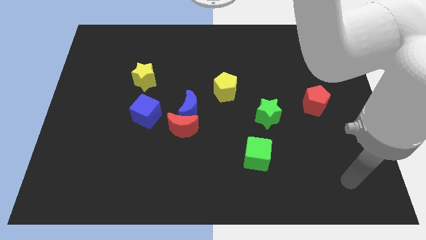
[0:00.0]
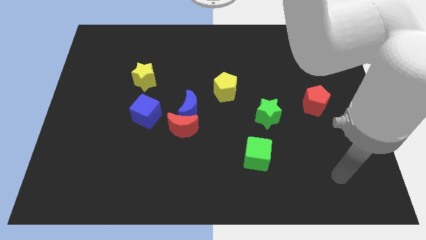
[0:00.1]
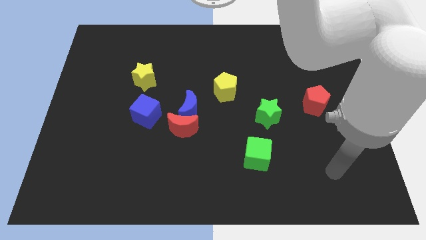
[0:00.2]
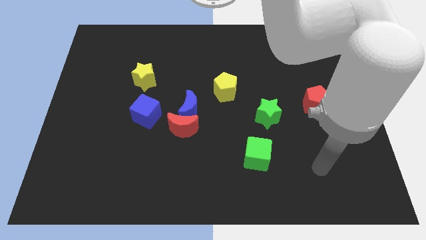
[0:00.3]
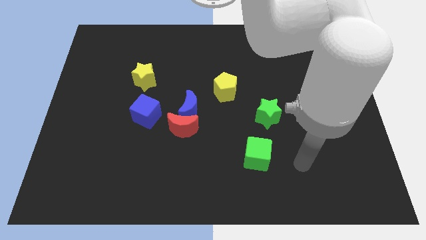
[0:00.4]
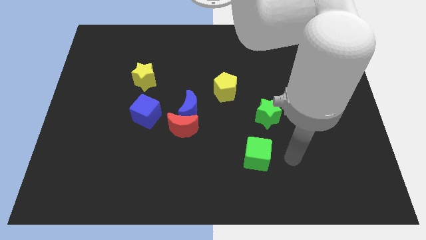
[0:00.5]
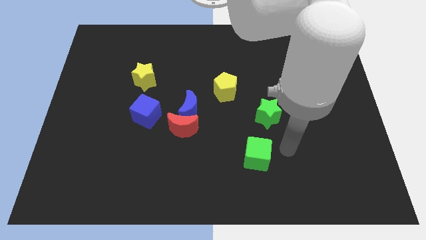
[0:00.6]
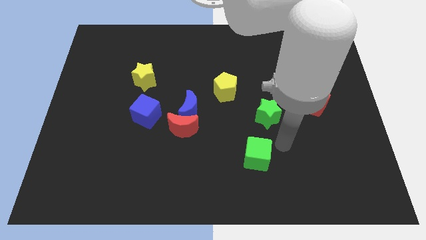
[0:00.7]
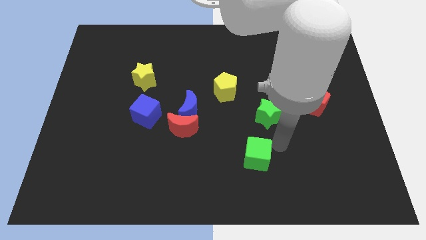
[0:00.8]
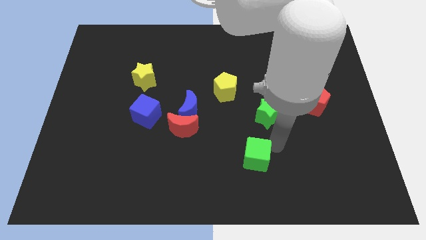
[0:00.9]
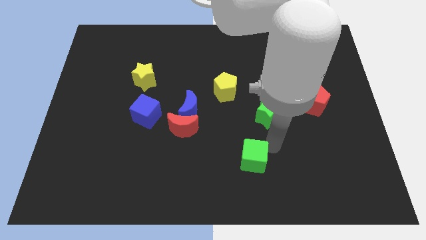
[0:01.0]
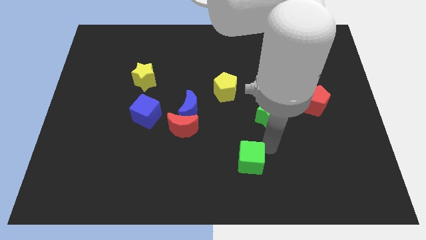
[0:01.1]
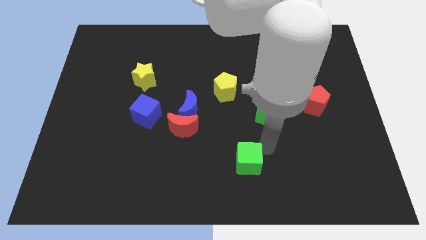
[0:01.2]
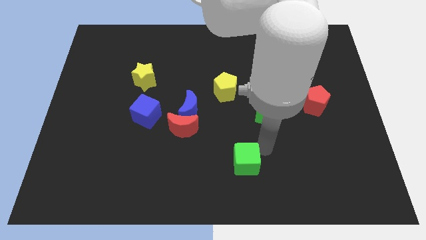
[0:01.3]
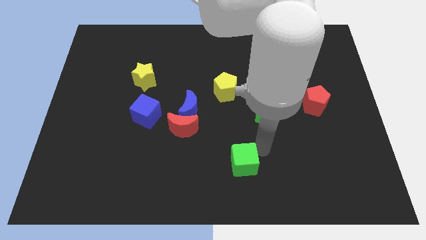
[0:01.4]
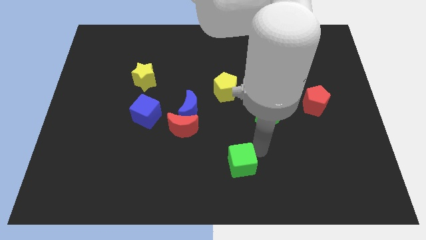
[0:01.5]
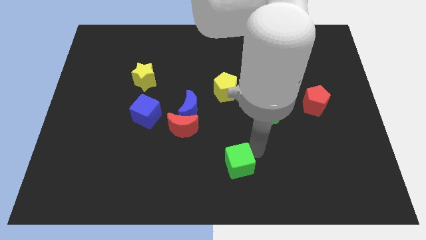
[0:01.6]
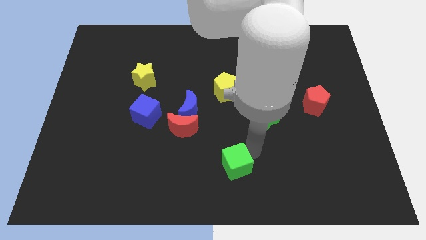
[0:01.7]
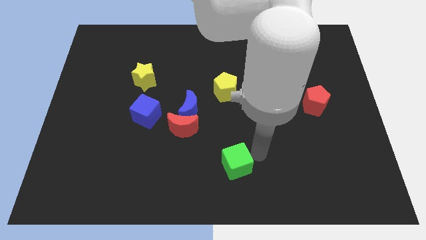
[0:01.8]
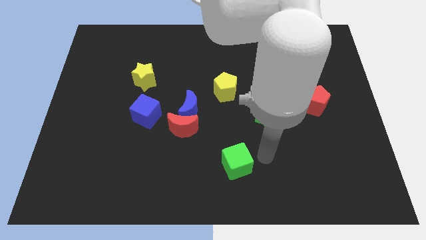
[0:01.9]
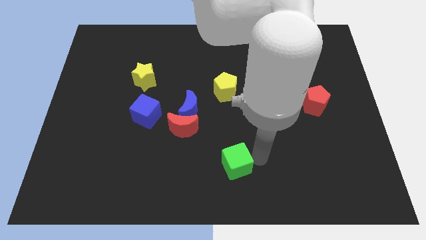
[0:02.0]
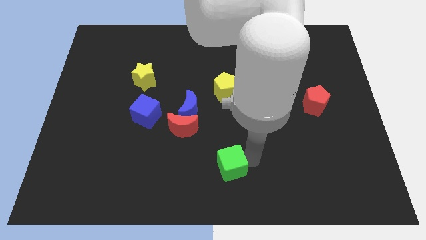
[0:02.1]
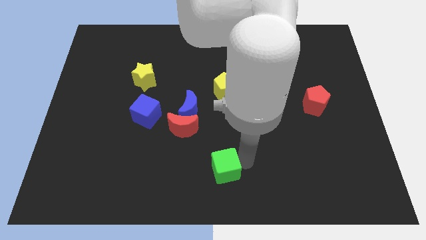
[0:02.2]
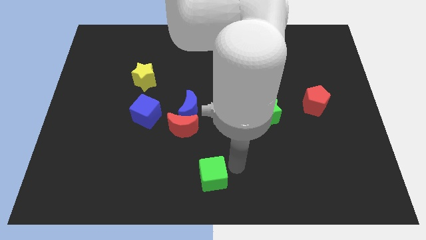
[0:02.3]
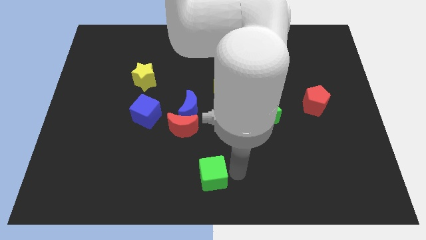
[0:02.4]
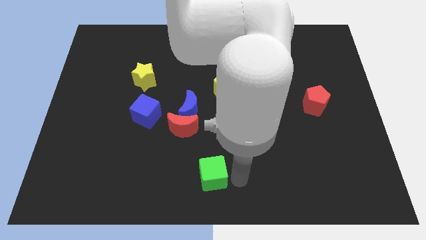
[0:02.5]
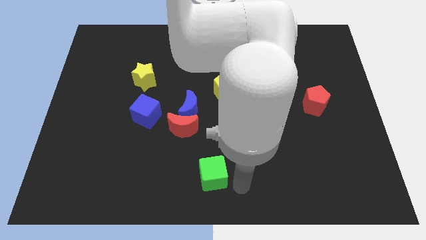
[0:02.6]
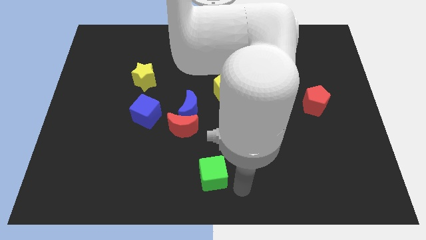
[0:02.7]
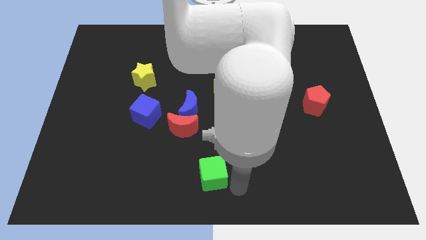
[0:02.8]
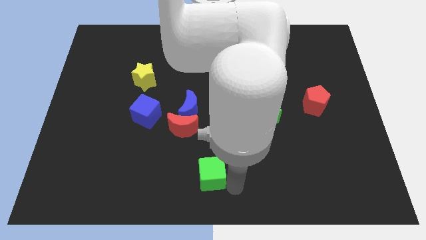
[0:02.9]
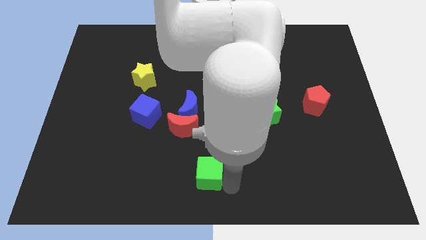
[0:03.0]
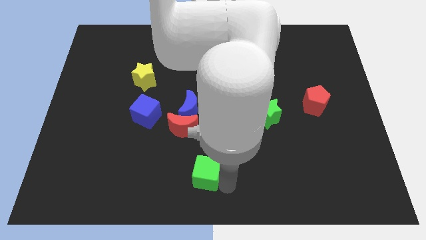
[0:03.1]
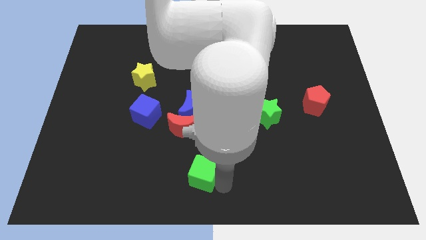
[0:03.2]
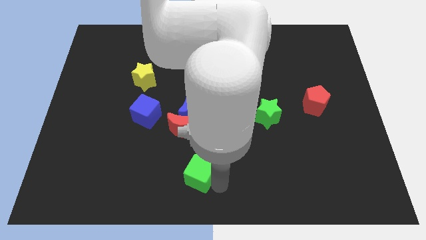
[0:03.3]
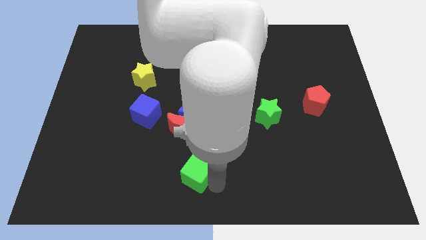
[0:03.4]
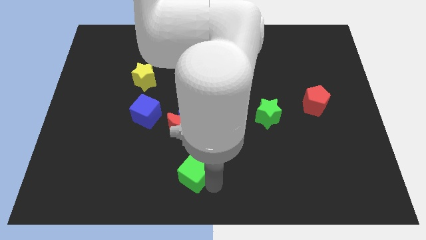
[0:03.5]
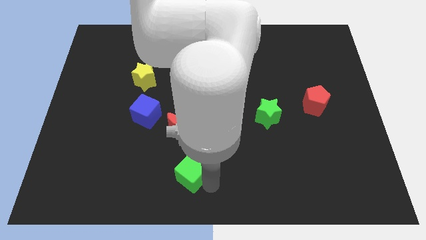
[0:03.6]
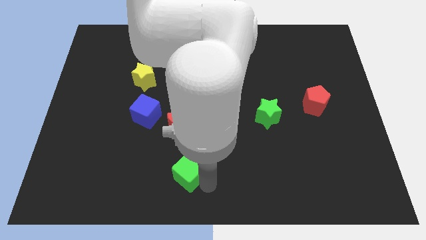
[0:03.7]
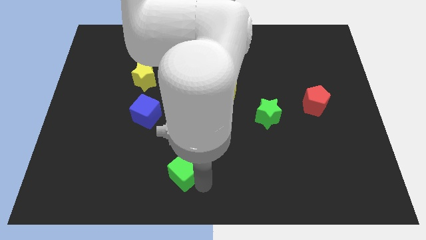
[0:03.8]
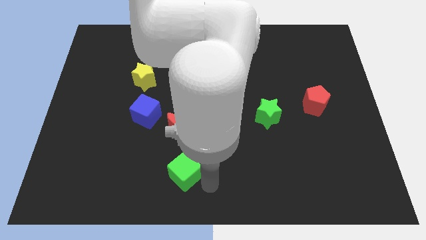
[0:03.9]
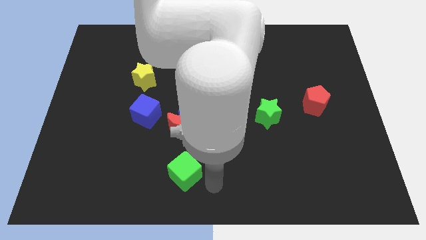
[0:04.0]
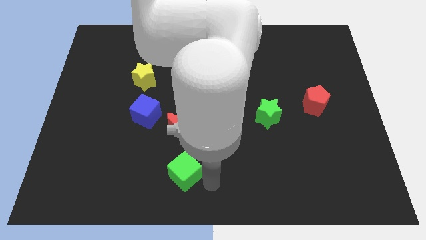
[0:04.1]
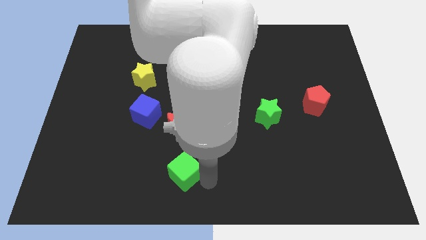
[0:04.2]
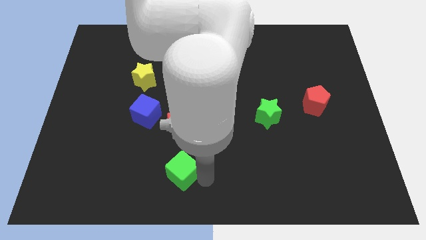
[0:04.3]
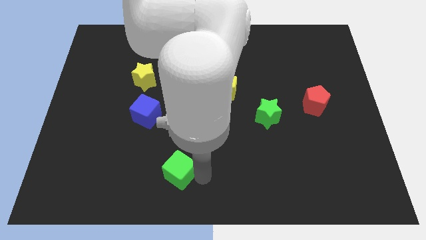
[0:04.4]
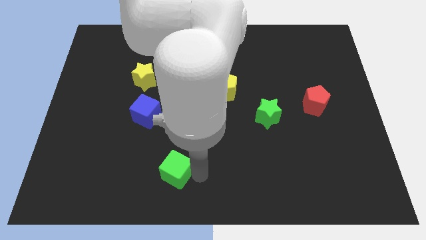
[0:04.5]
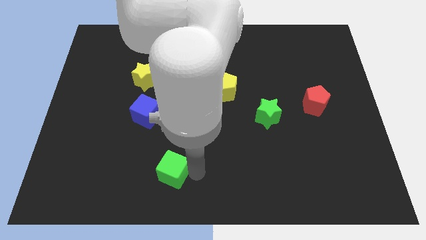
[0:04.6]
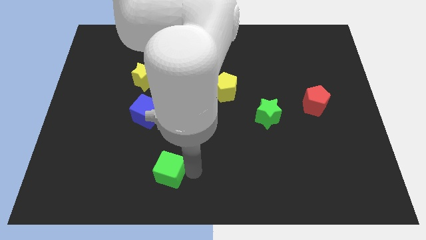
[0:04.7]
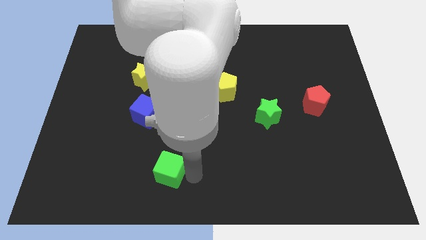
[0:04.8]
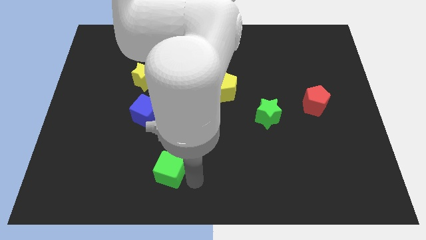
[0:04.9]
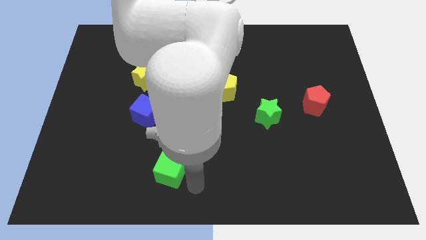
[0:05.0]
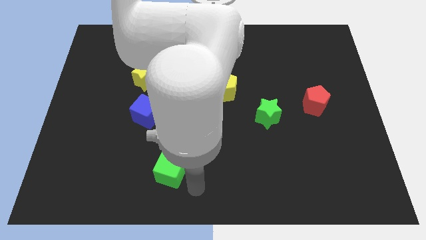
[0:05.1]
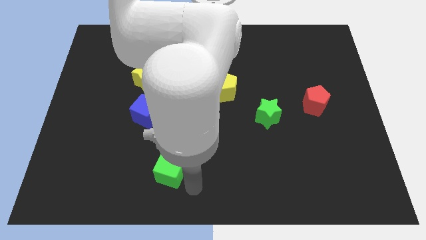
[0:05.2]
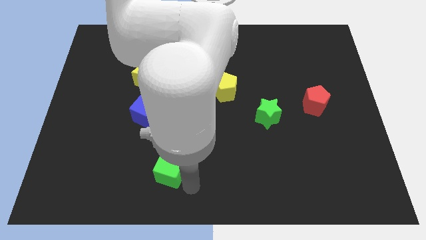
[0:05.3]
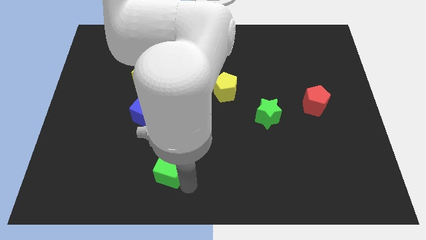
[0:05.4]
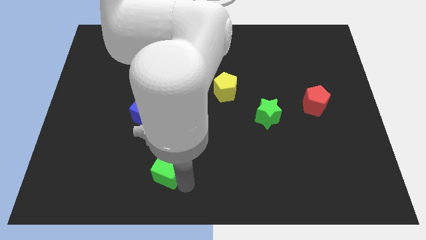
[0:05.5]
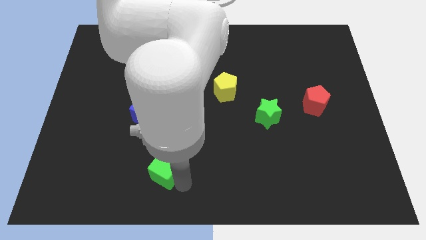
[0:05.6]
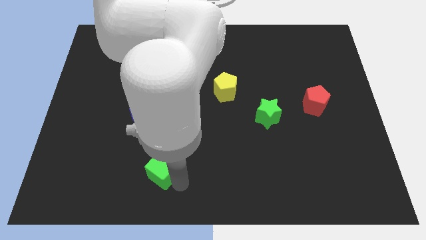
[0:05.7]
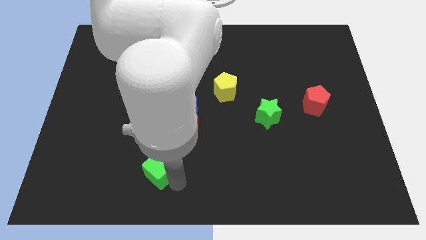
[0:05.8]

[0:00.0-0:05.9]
push the green cube to the left

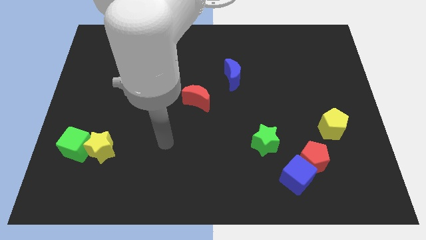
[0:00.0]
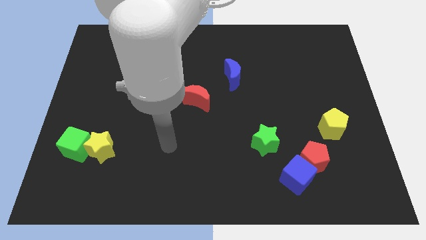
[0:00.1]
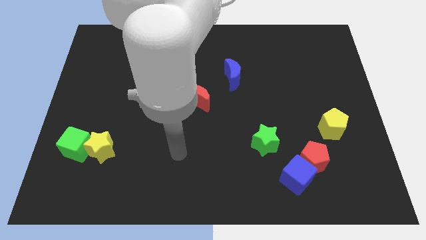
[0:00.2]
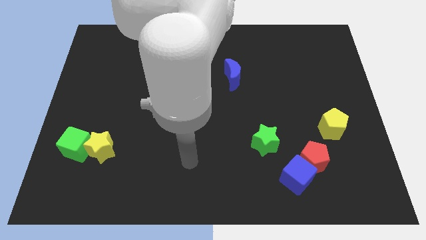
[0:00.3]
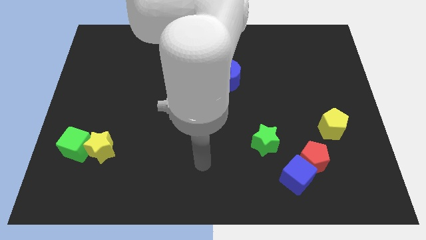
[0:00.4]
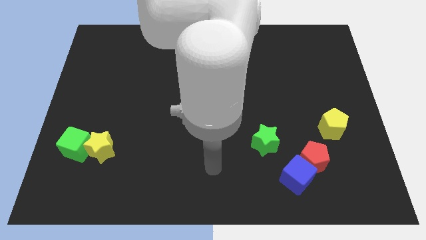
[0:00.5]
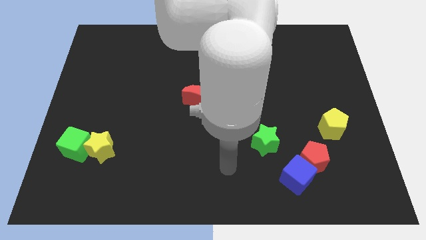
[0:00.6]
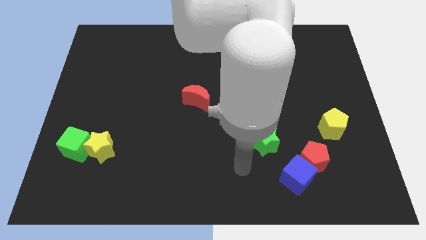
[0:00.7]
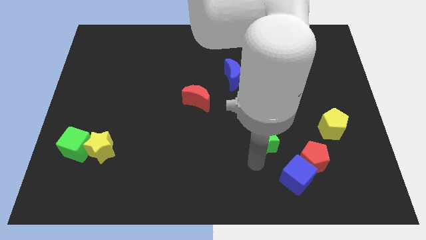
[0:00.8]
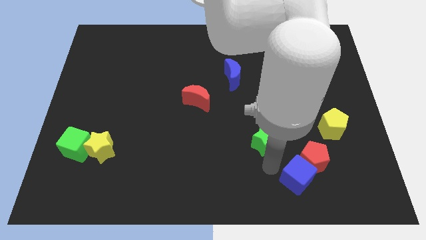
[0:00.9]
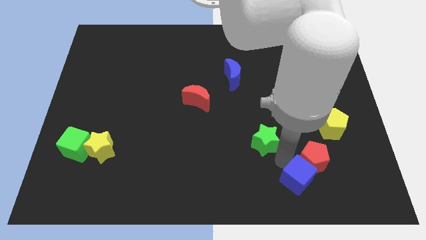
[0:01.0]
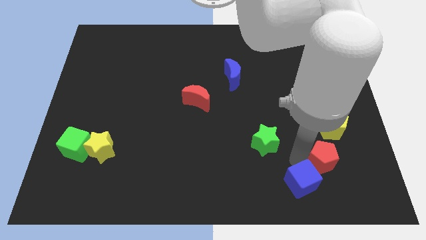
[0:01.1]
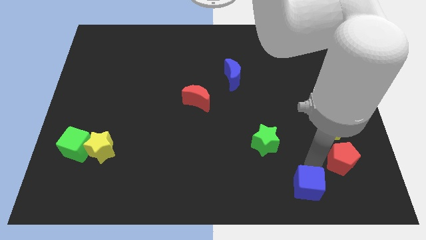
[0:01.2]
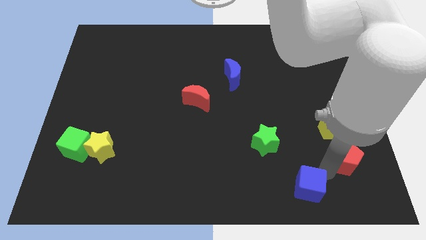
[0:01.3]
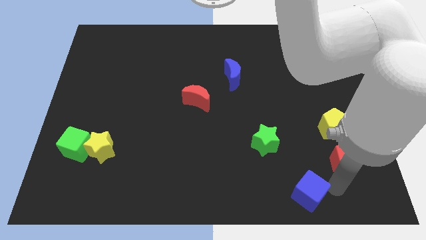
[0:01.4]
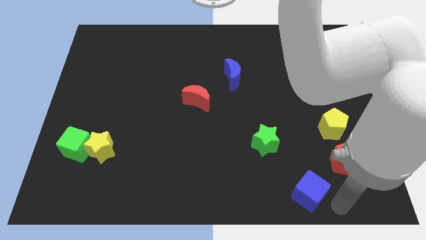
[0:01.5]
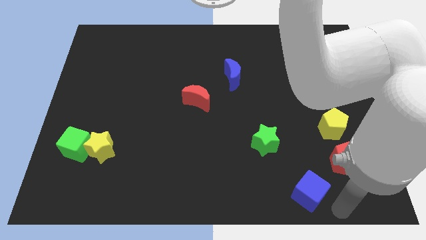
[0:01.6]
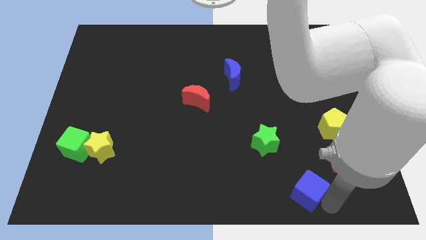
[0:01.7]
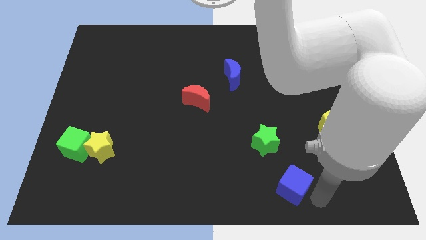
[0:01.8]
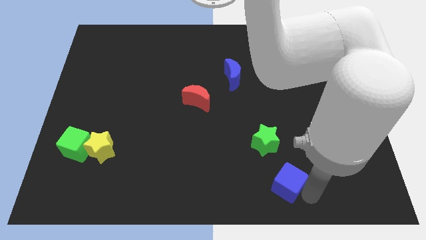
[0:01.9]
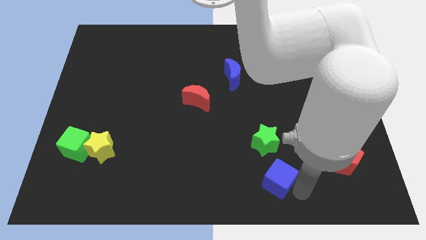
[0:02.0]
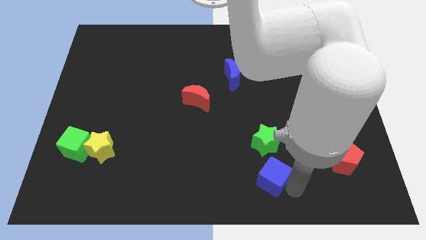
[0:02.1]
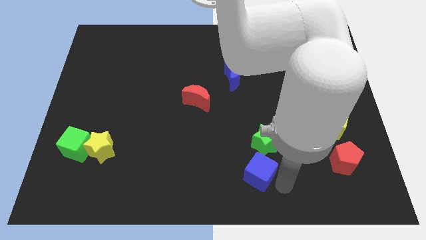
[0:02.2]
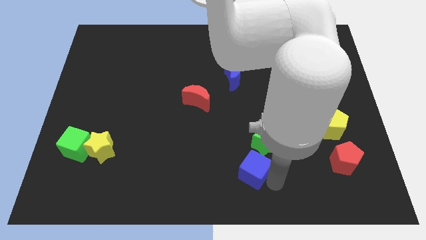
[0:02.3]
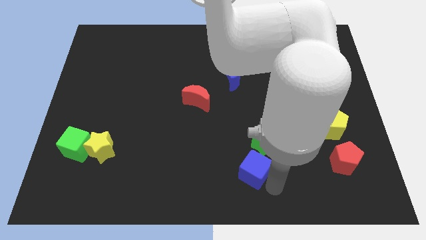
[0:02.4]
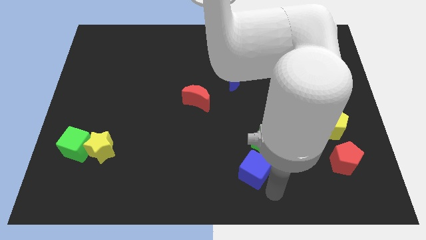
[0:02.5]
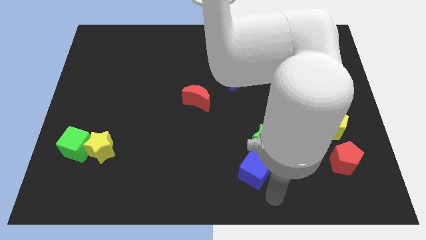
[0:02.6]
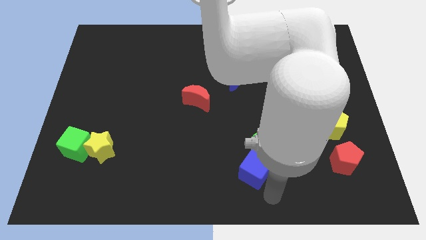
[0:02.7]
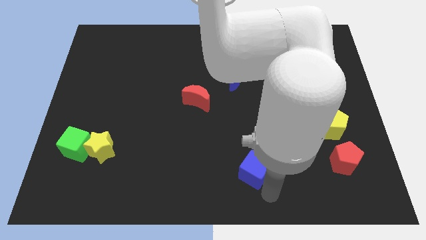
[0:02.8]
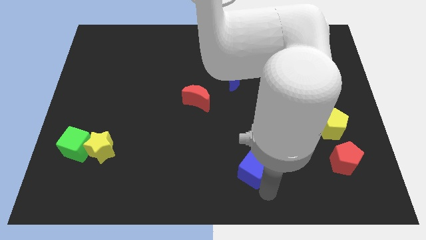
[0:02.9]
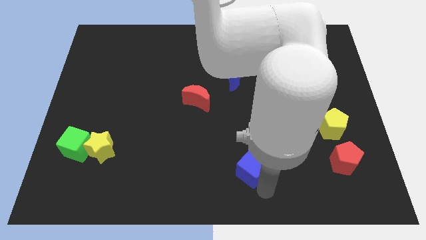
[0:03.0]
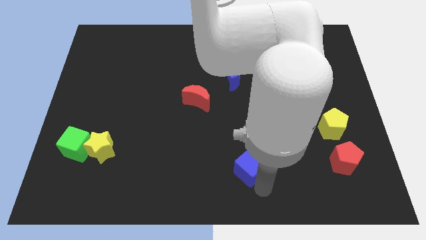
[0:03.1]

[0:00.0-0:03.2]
slightly slide the blue cube upwards and then left
